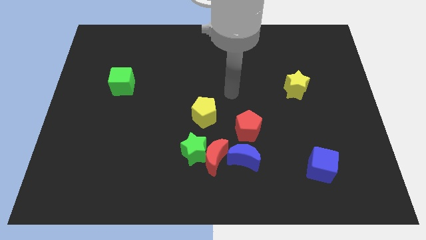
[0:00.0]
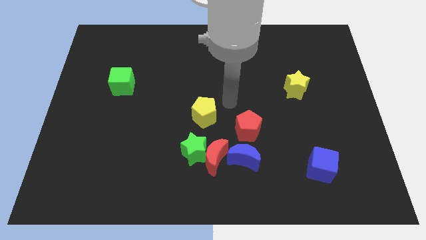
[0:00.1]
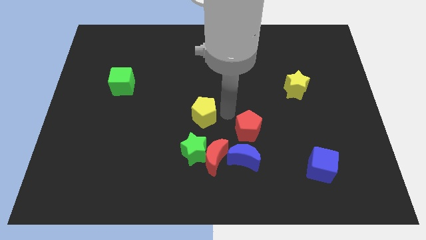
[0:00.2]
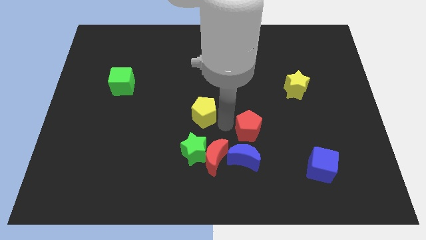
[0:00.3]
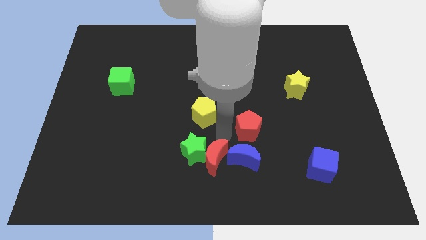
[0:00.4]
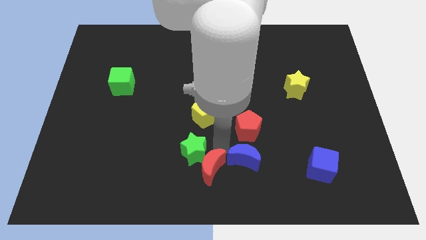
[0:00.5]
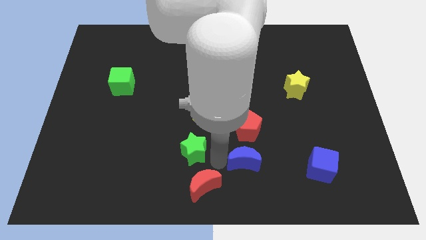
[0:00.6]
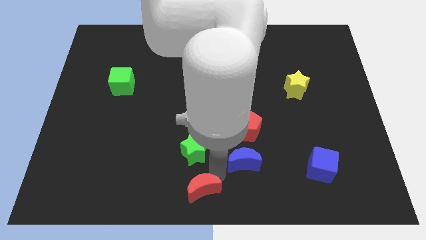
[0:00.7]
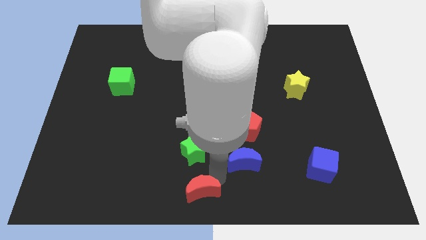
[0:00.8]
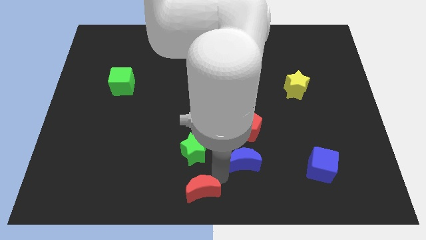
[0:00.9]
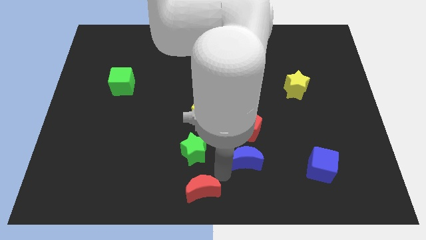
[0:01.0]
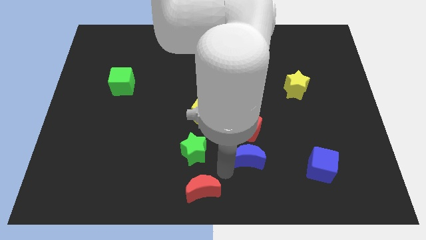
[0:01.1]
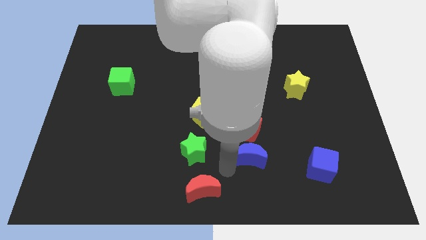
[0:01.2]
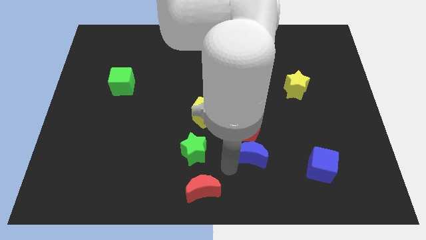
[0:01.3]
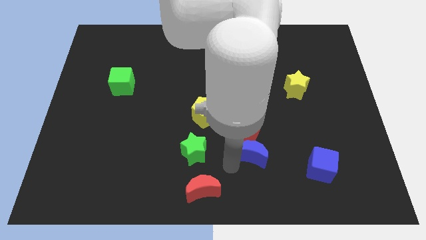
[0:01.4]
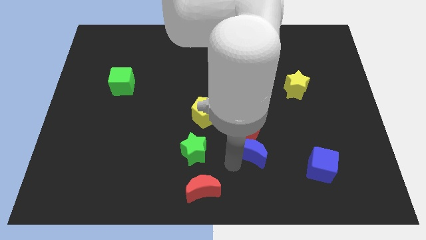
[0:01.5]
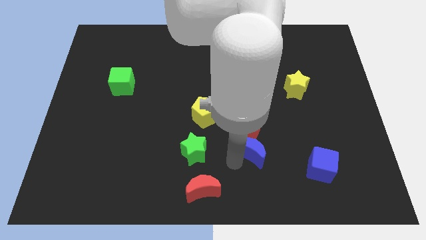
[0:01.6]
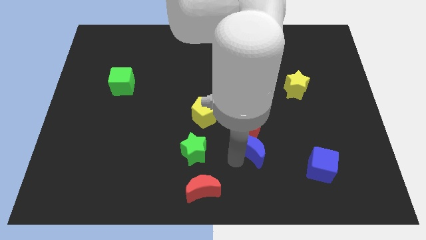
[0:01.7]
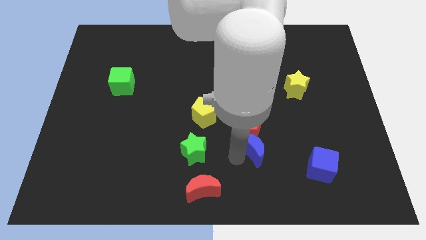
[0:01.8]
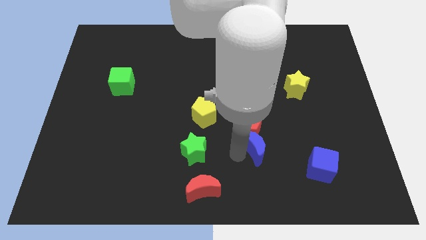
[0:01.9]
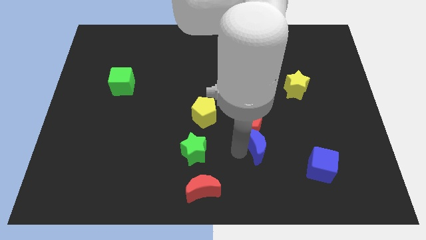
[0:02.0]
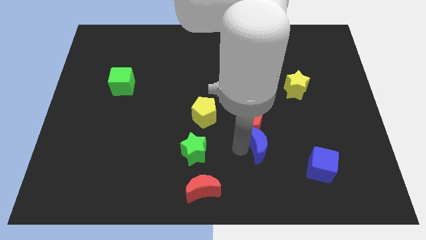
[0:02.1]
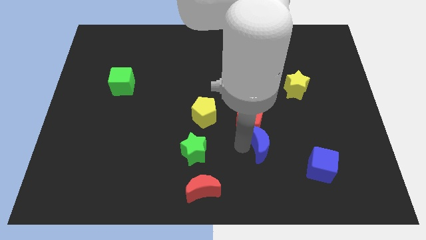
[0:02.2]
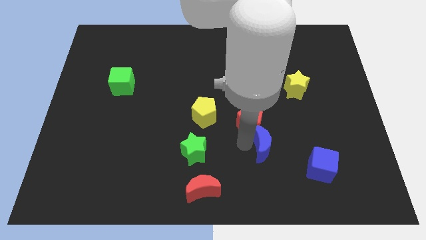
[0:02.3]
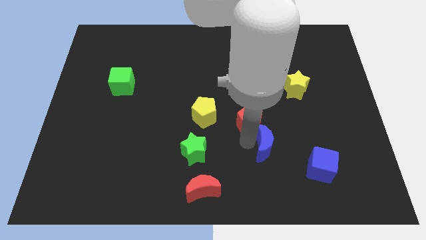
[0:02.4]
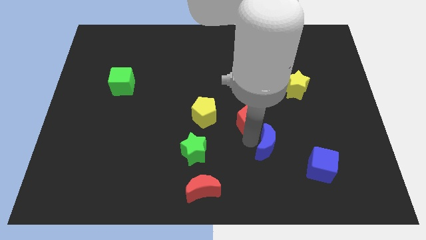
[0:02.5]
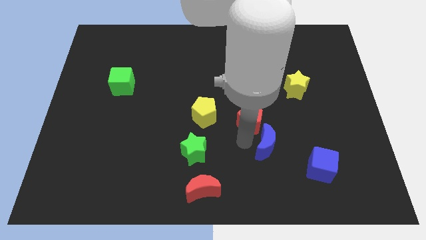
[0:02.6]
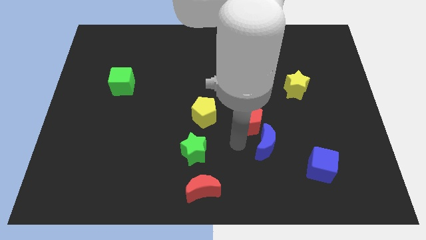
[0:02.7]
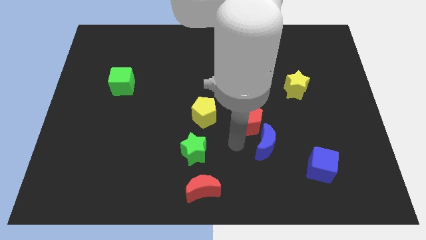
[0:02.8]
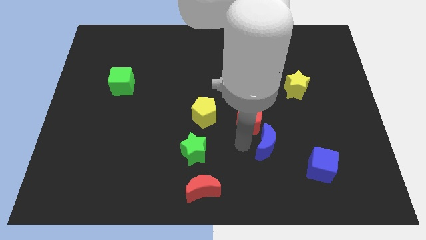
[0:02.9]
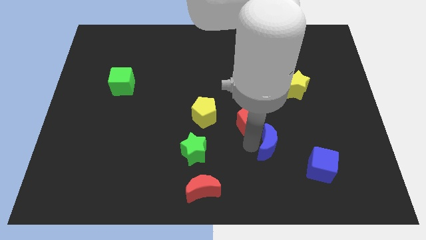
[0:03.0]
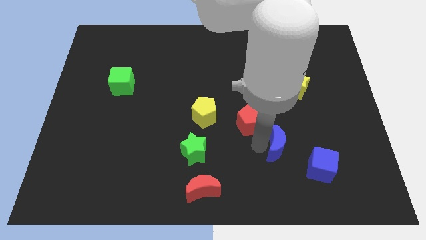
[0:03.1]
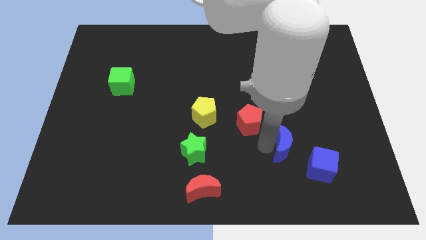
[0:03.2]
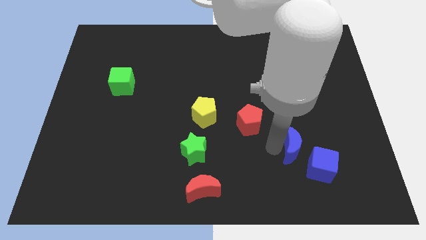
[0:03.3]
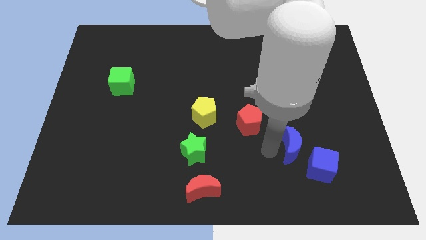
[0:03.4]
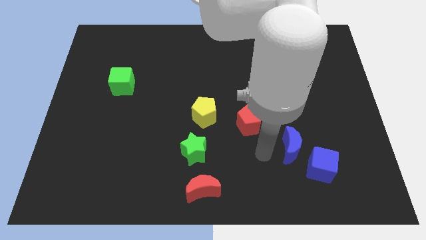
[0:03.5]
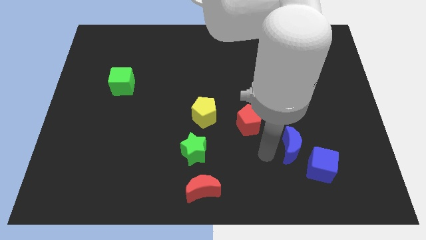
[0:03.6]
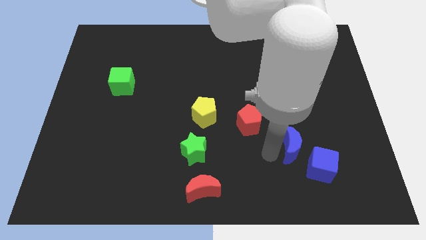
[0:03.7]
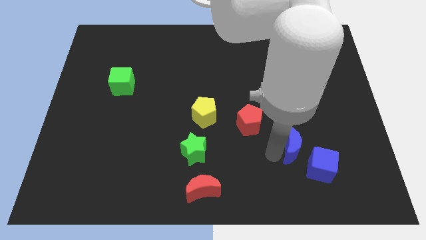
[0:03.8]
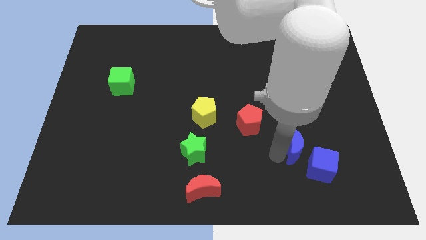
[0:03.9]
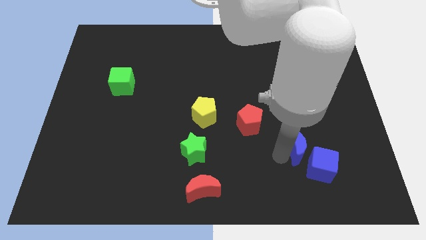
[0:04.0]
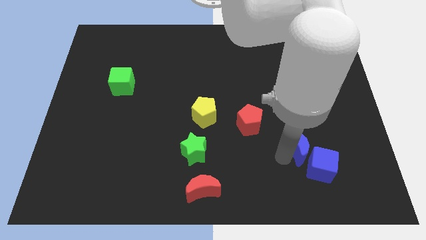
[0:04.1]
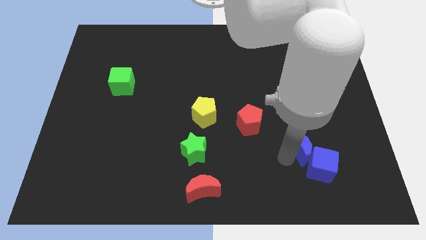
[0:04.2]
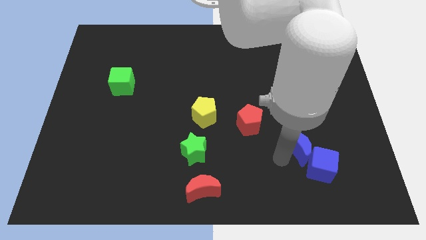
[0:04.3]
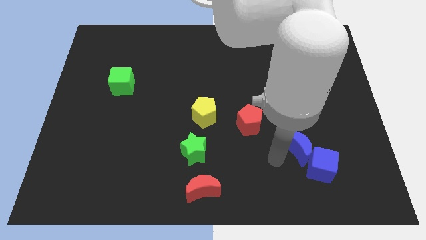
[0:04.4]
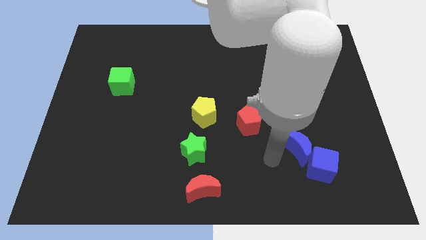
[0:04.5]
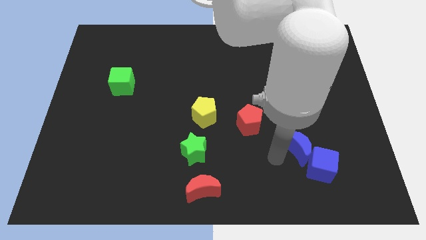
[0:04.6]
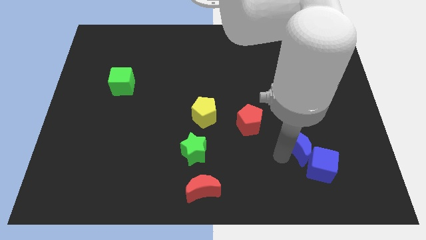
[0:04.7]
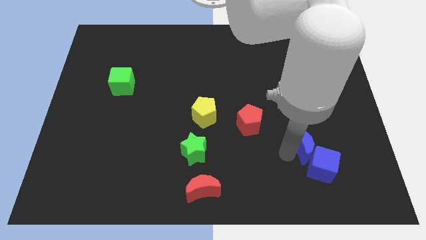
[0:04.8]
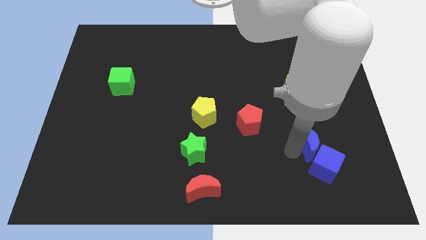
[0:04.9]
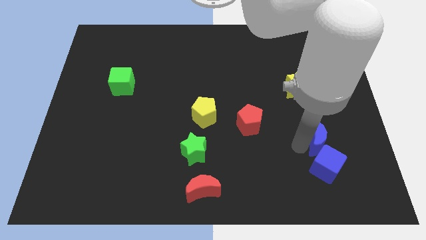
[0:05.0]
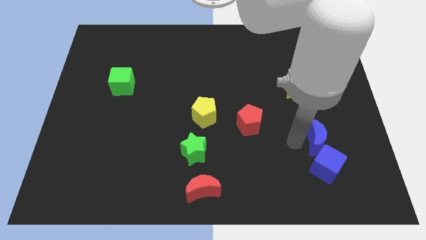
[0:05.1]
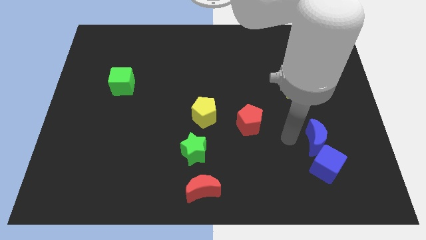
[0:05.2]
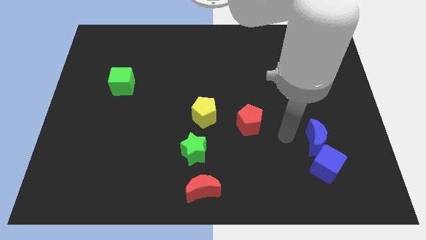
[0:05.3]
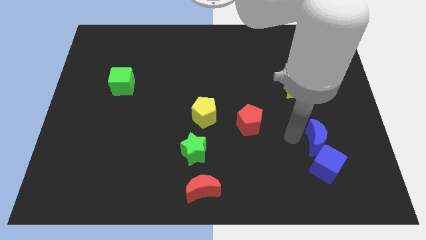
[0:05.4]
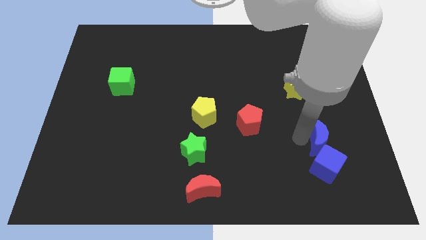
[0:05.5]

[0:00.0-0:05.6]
slide the blue moon to the top right side of the blue cube

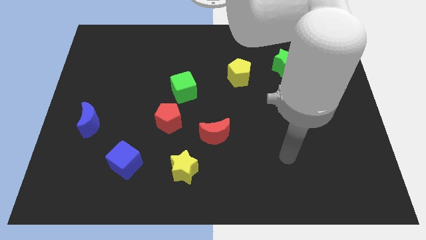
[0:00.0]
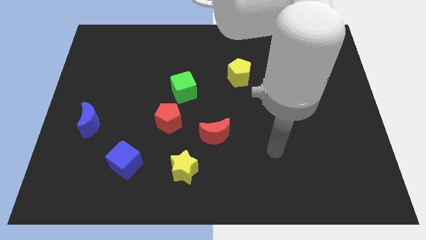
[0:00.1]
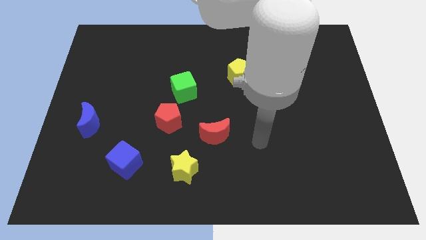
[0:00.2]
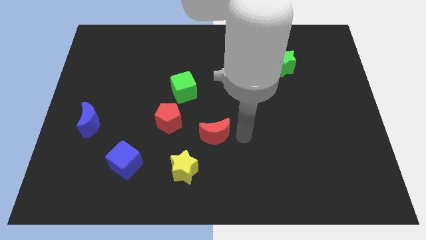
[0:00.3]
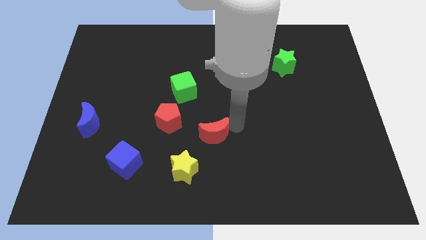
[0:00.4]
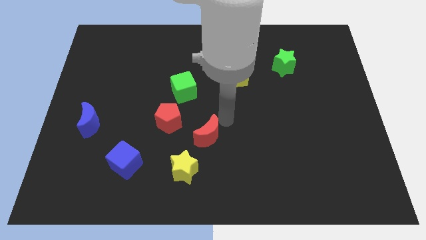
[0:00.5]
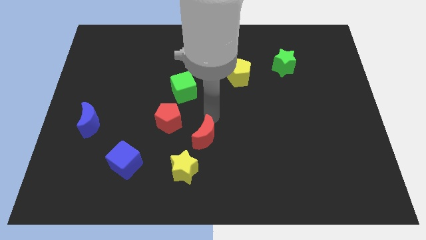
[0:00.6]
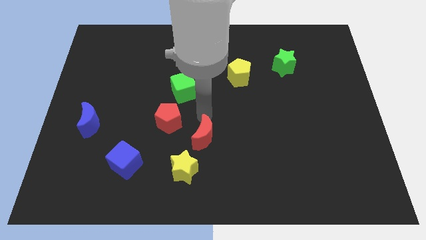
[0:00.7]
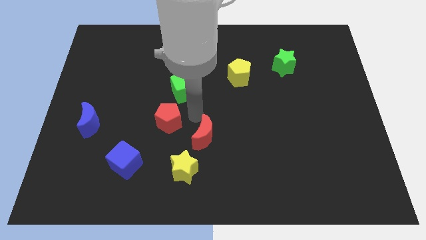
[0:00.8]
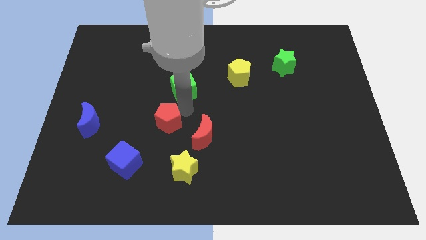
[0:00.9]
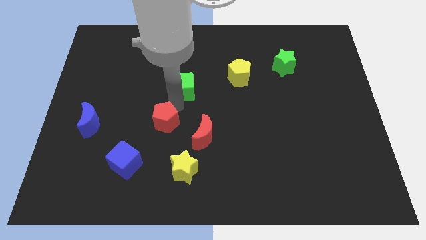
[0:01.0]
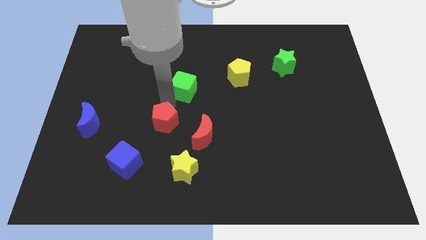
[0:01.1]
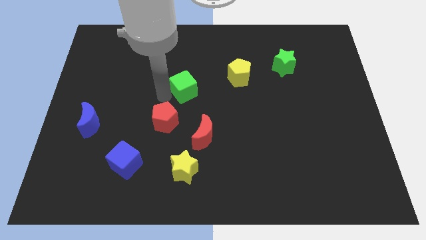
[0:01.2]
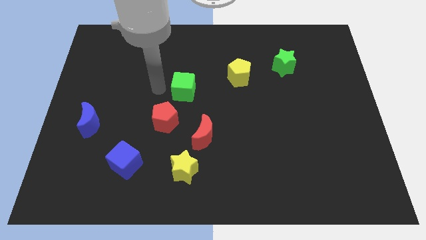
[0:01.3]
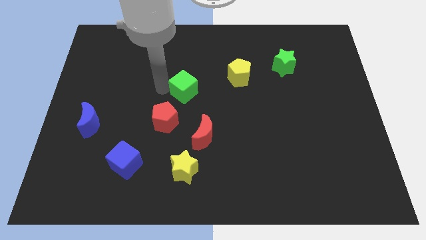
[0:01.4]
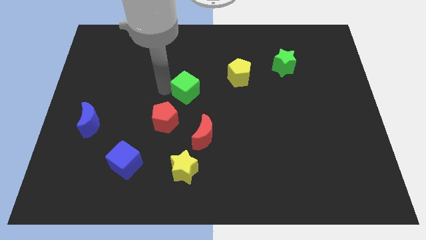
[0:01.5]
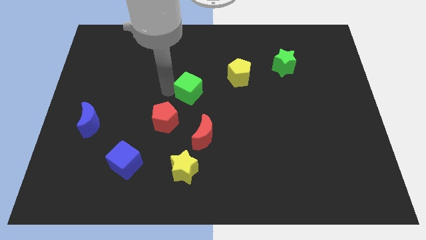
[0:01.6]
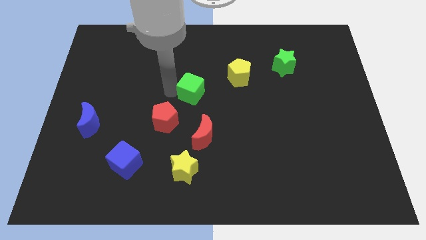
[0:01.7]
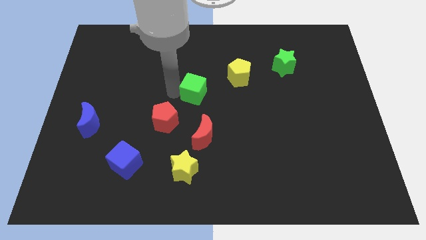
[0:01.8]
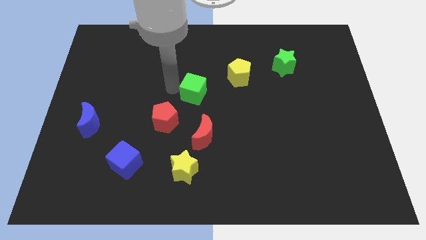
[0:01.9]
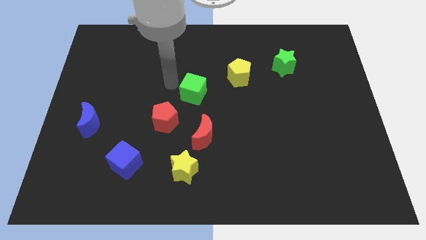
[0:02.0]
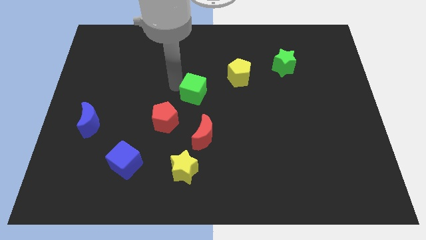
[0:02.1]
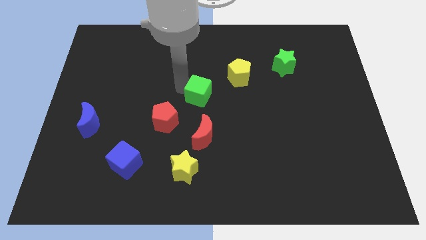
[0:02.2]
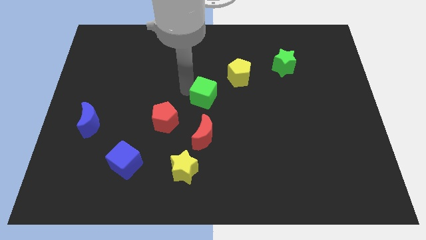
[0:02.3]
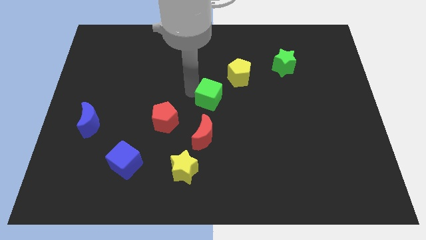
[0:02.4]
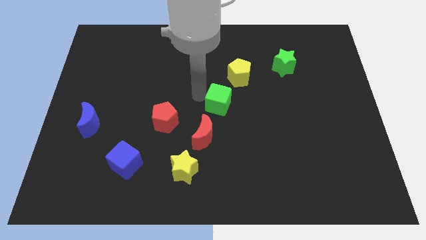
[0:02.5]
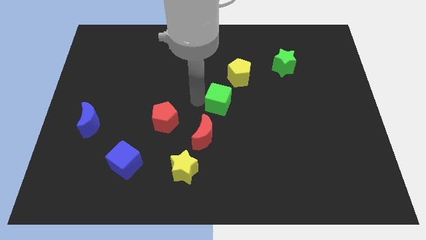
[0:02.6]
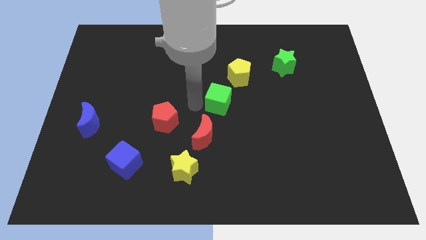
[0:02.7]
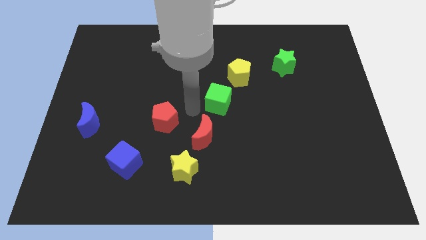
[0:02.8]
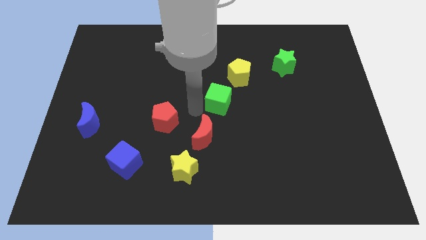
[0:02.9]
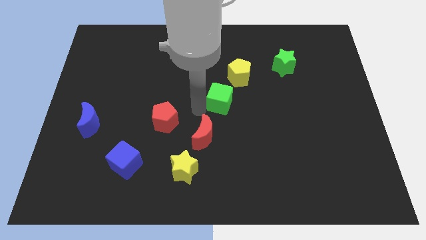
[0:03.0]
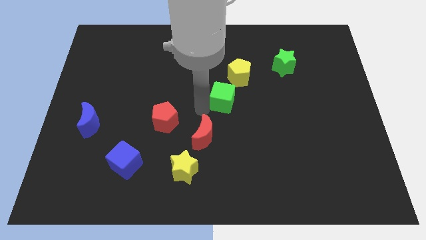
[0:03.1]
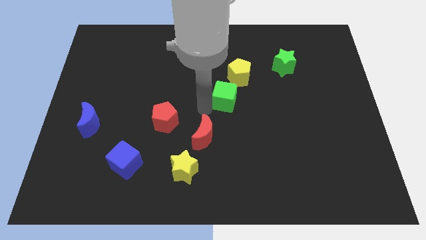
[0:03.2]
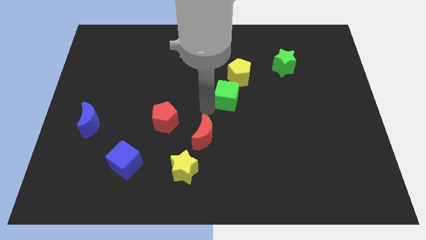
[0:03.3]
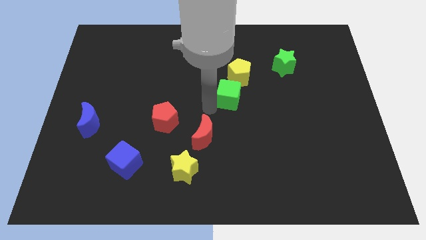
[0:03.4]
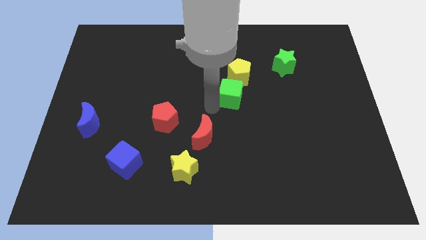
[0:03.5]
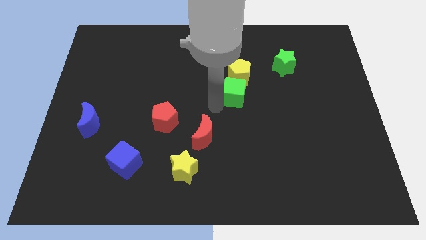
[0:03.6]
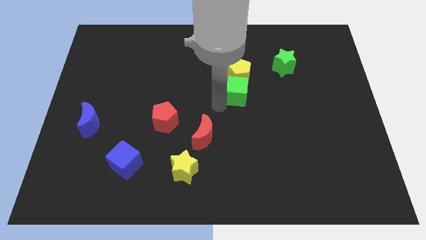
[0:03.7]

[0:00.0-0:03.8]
slide the green cube diagonally down and to the right of the yellow pentagon
